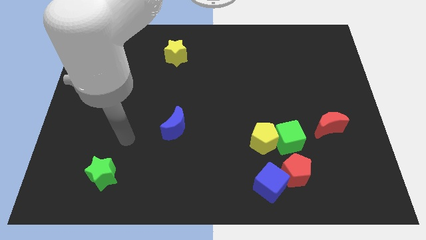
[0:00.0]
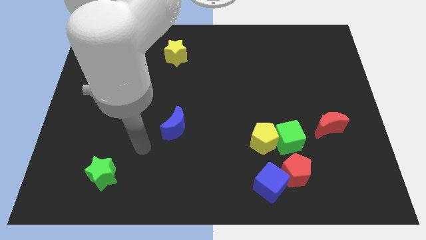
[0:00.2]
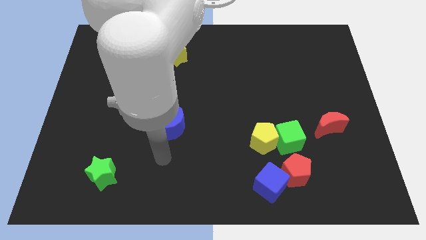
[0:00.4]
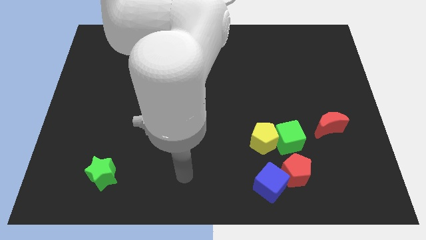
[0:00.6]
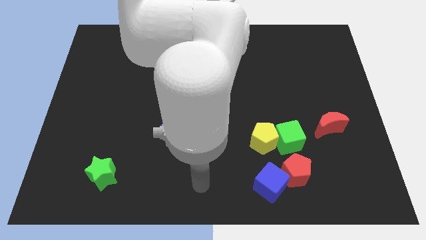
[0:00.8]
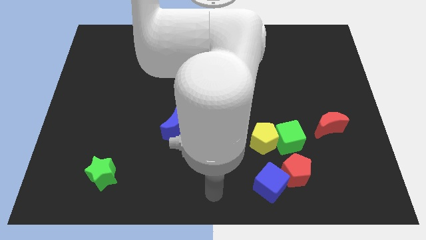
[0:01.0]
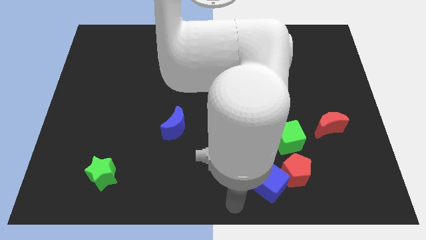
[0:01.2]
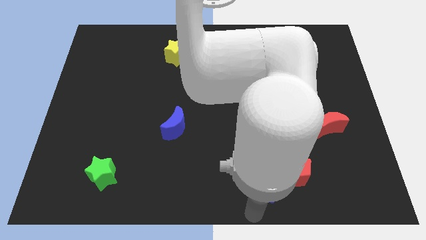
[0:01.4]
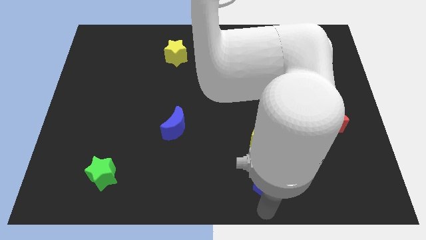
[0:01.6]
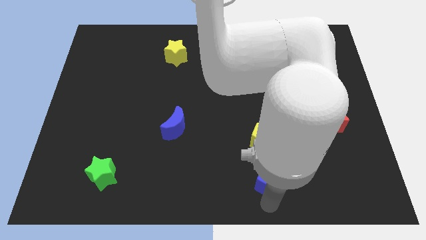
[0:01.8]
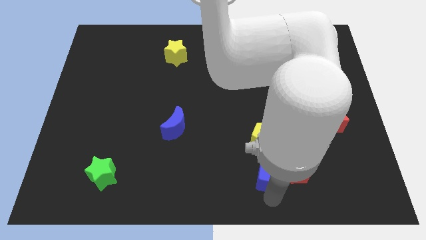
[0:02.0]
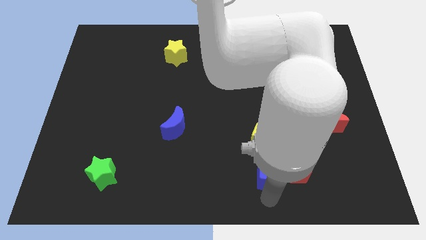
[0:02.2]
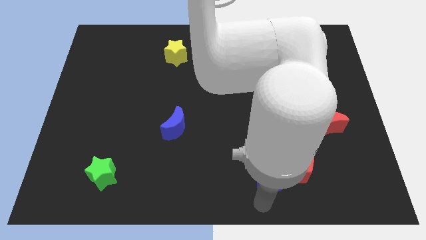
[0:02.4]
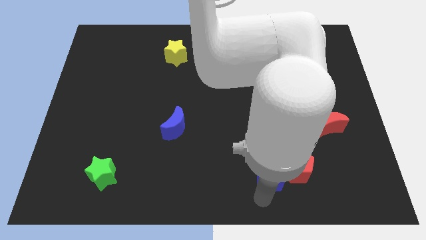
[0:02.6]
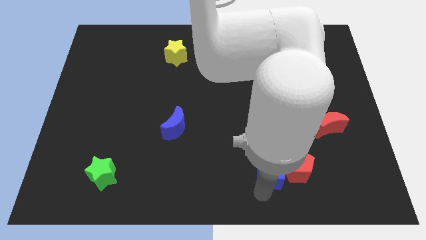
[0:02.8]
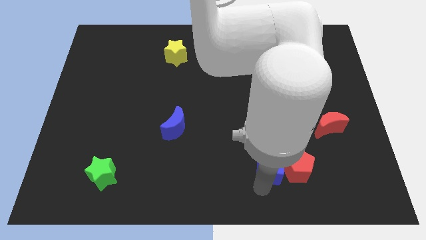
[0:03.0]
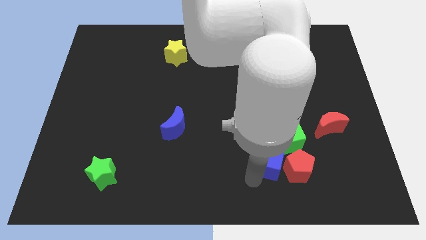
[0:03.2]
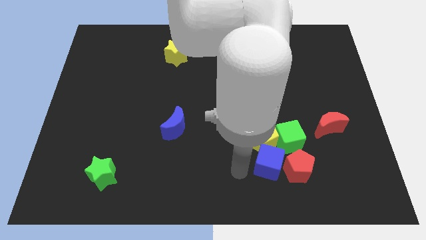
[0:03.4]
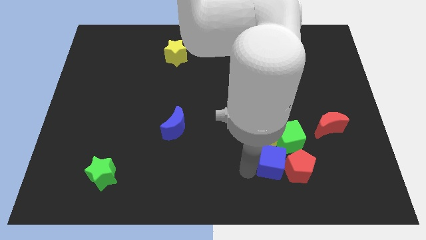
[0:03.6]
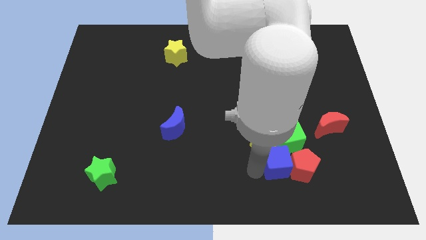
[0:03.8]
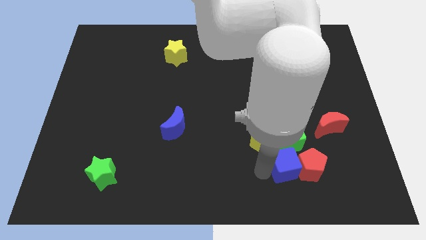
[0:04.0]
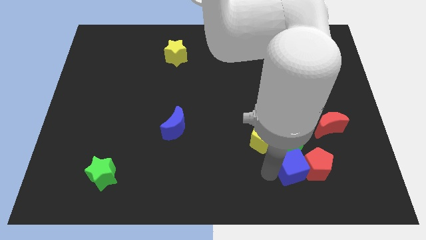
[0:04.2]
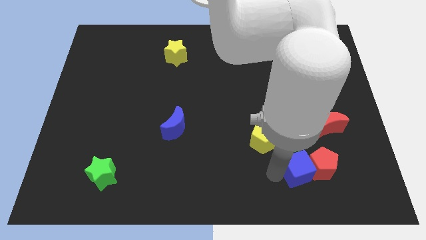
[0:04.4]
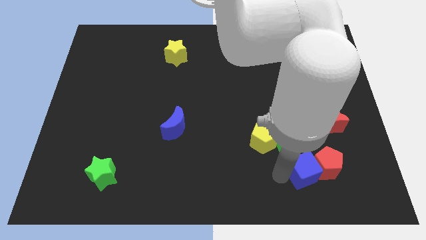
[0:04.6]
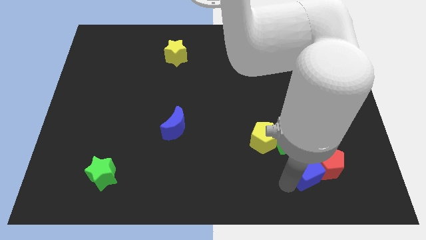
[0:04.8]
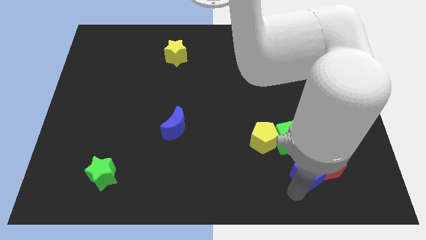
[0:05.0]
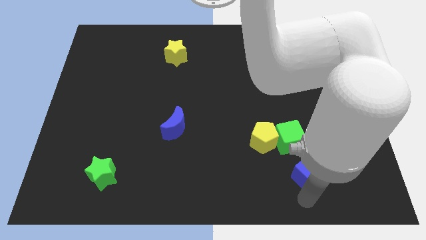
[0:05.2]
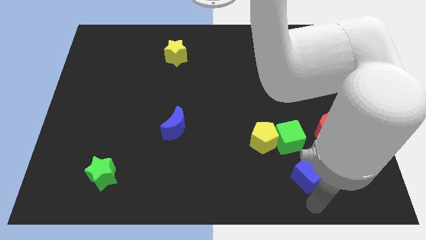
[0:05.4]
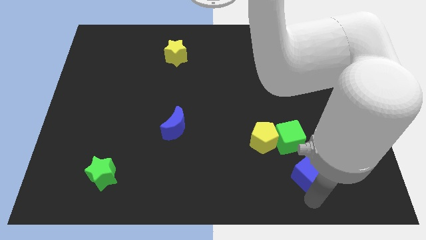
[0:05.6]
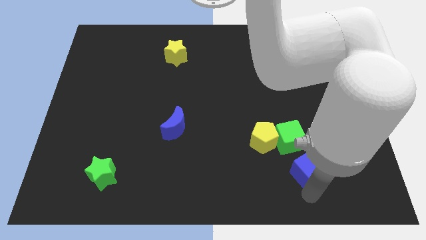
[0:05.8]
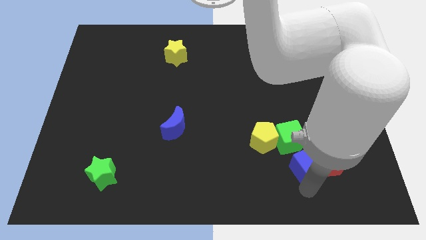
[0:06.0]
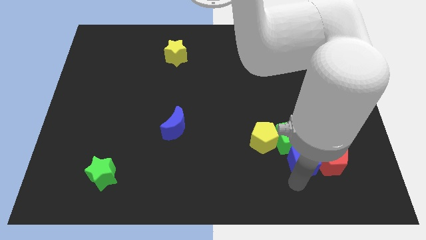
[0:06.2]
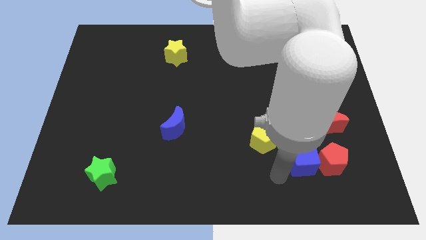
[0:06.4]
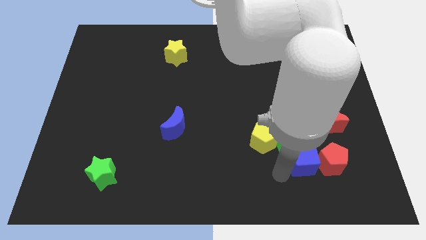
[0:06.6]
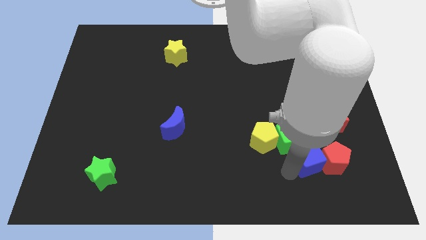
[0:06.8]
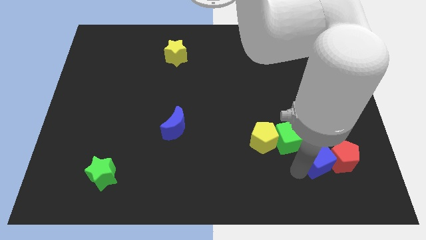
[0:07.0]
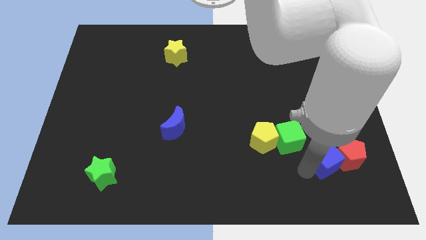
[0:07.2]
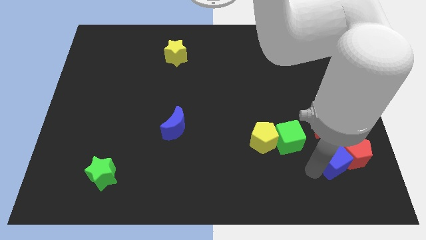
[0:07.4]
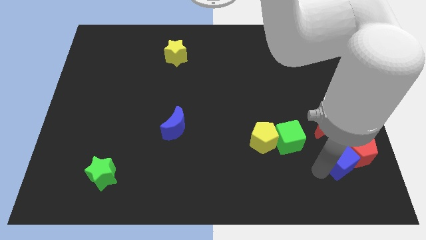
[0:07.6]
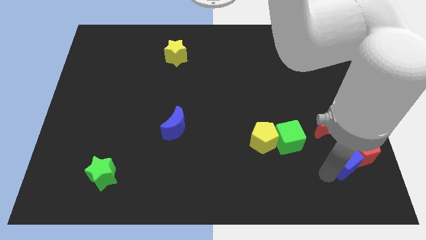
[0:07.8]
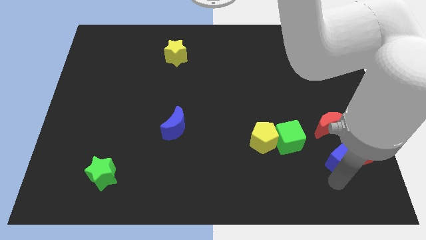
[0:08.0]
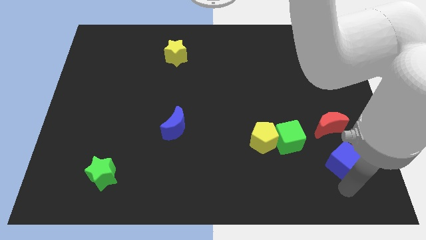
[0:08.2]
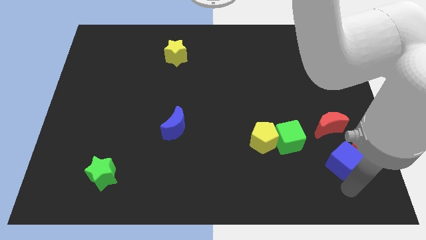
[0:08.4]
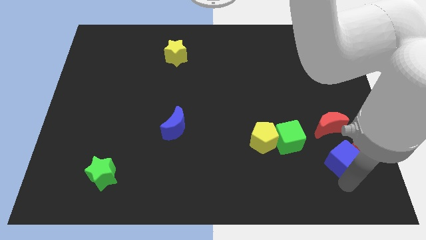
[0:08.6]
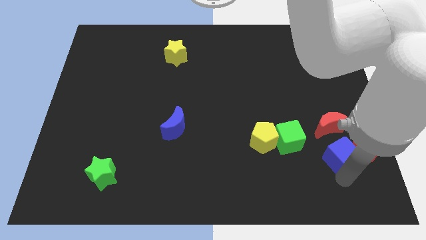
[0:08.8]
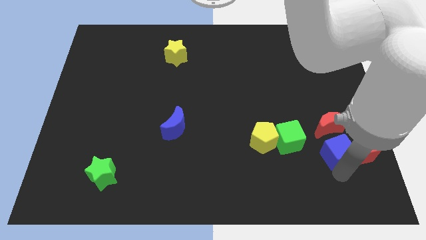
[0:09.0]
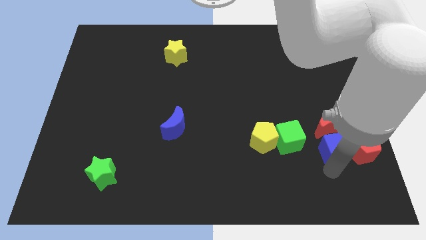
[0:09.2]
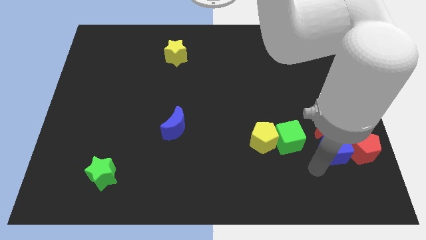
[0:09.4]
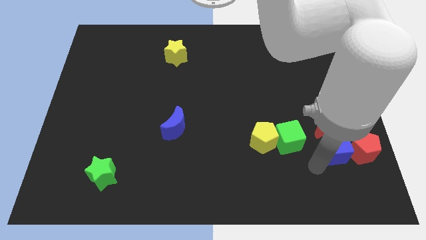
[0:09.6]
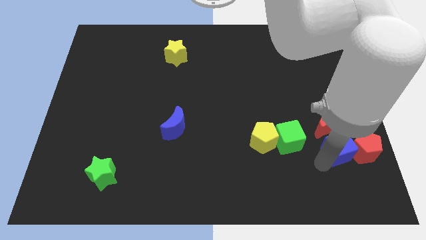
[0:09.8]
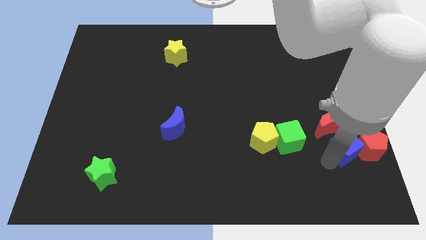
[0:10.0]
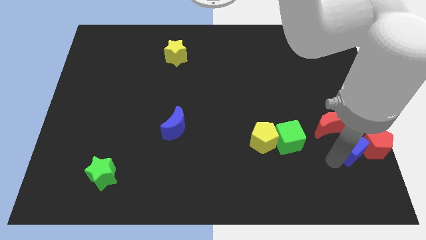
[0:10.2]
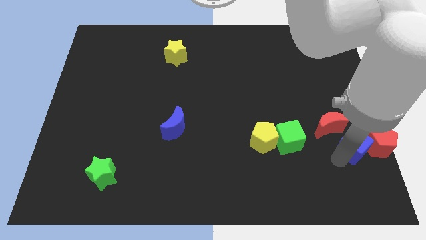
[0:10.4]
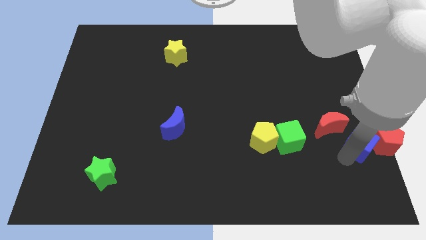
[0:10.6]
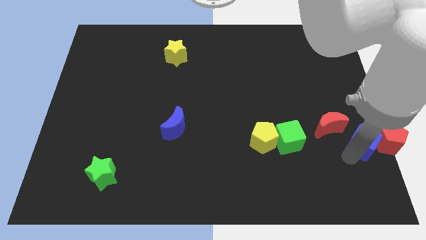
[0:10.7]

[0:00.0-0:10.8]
slide the blue cube to the right side of the board
